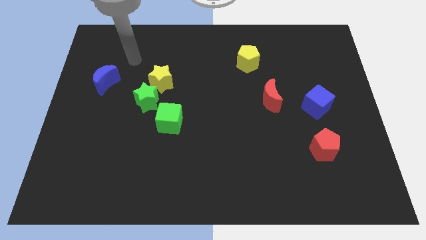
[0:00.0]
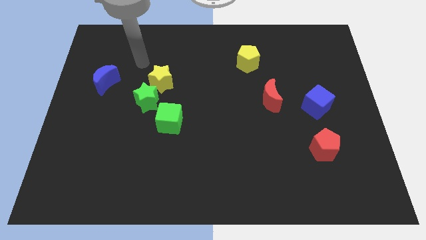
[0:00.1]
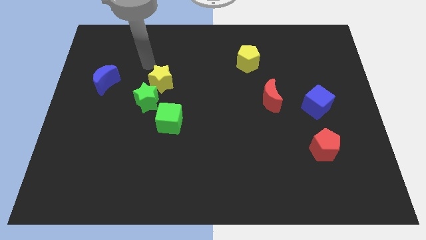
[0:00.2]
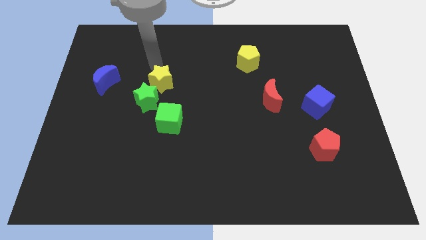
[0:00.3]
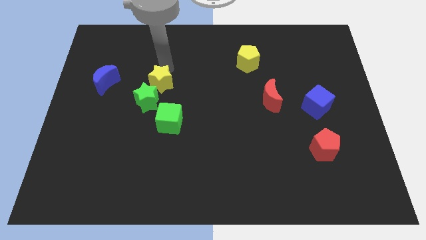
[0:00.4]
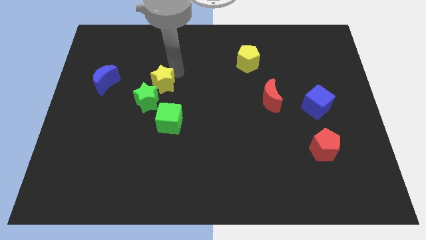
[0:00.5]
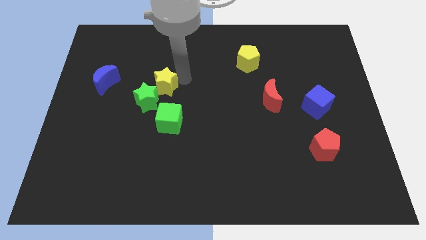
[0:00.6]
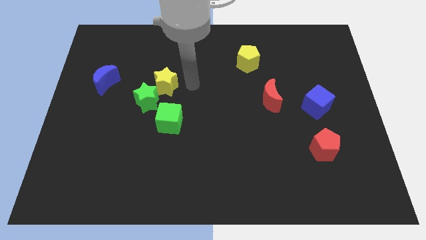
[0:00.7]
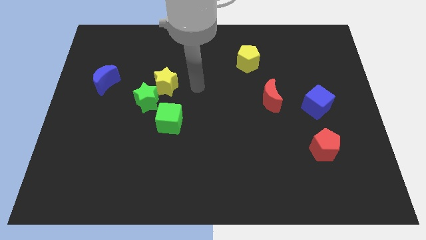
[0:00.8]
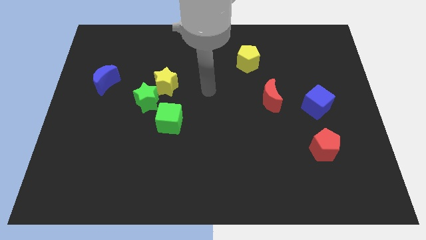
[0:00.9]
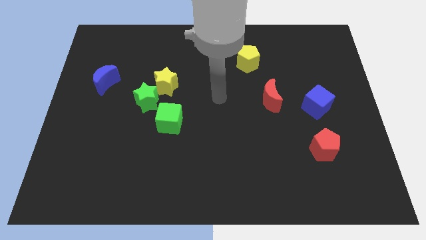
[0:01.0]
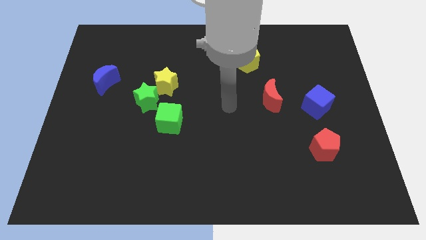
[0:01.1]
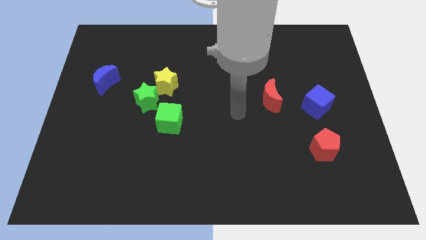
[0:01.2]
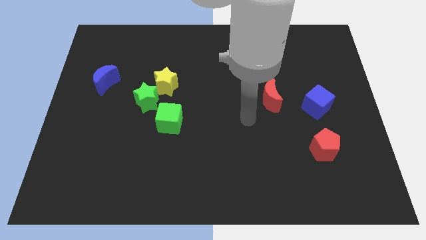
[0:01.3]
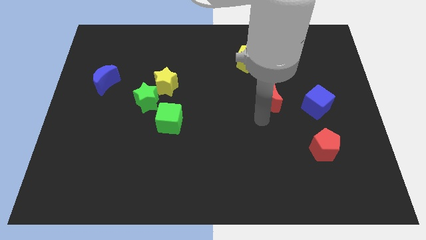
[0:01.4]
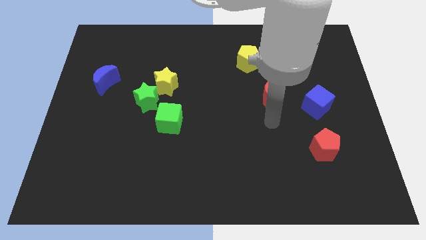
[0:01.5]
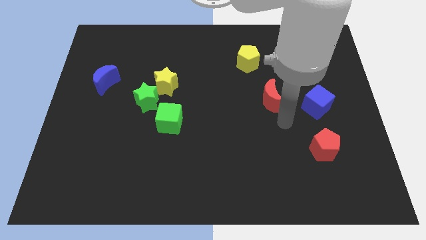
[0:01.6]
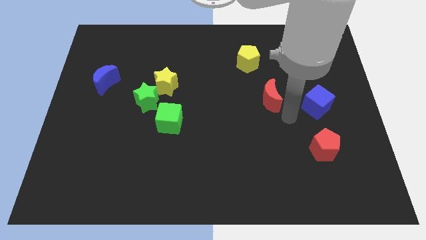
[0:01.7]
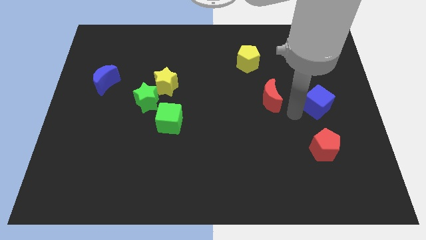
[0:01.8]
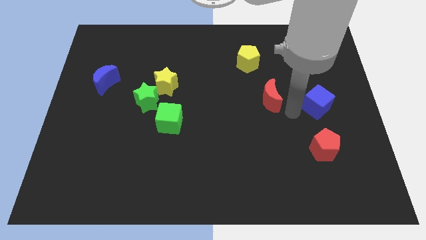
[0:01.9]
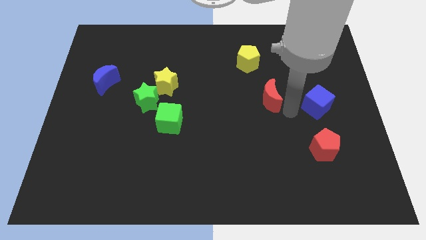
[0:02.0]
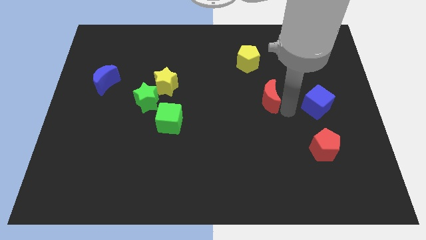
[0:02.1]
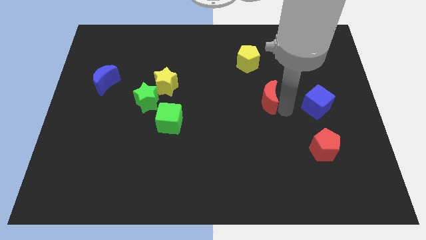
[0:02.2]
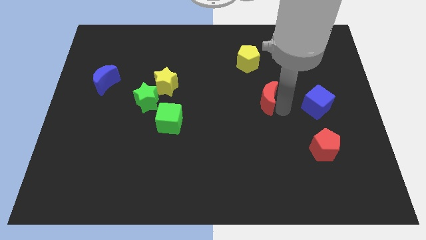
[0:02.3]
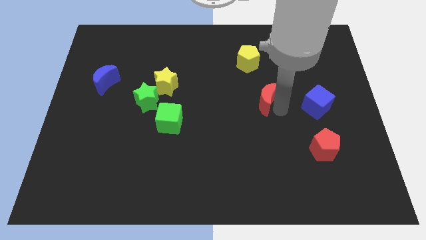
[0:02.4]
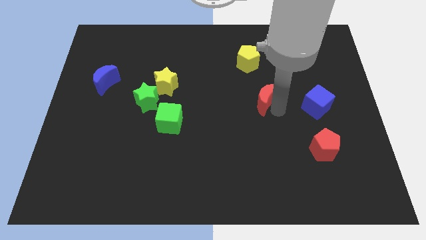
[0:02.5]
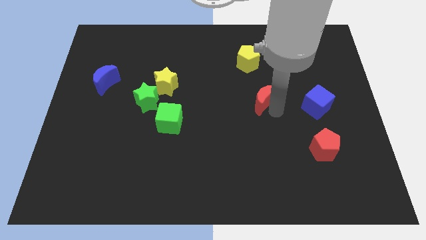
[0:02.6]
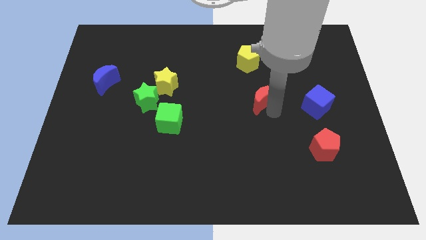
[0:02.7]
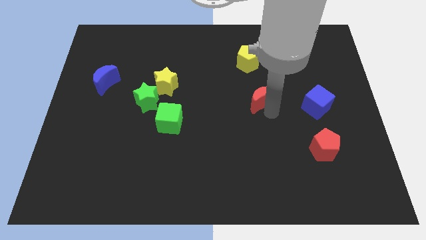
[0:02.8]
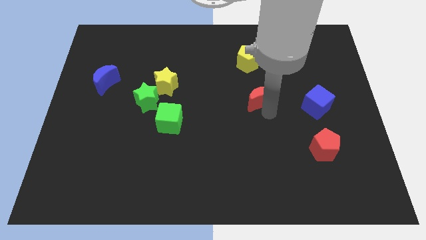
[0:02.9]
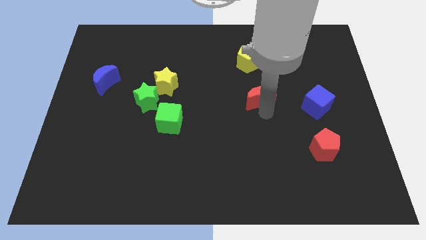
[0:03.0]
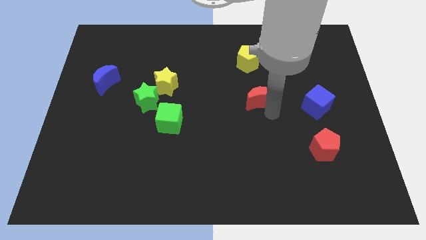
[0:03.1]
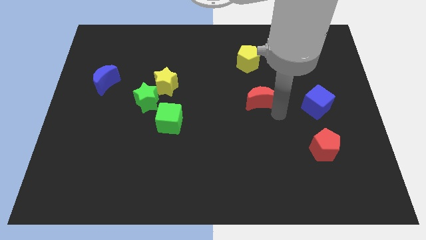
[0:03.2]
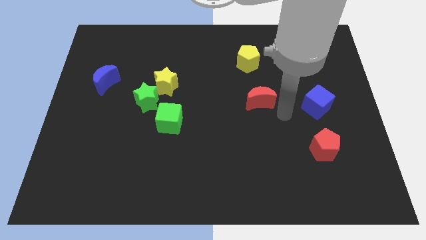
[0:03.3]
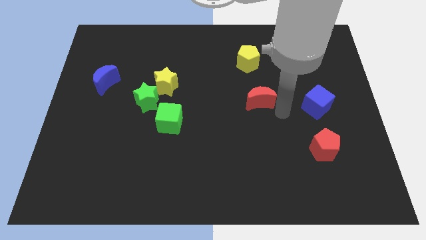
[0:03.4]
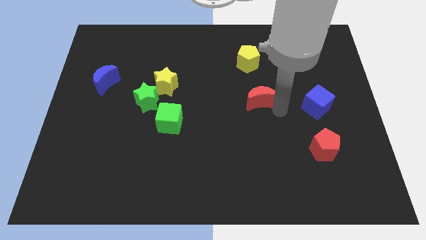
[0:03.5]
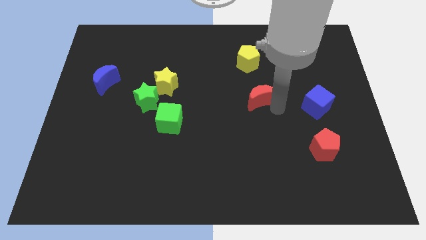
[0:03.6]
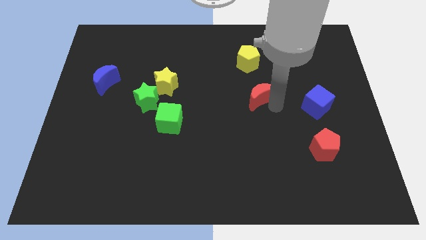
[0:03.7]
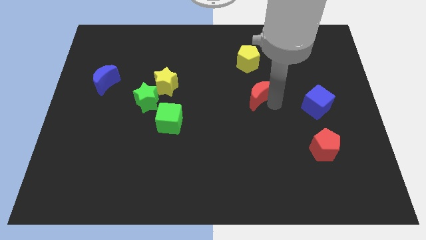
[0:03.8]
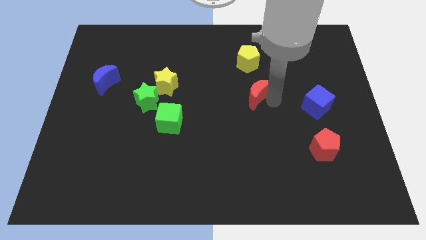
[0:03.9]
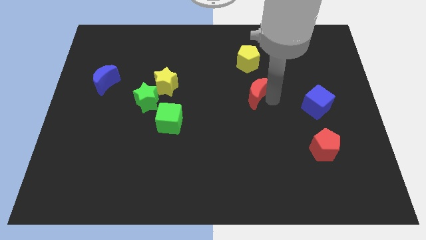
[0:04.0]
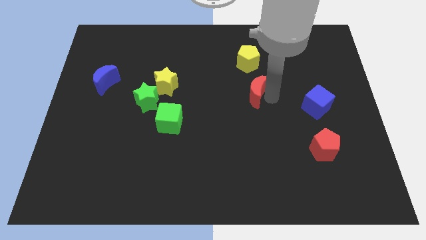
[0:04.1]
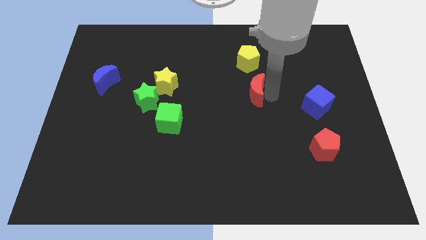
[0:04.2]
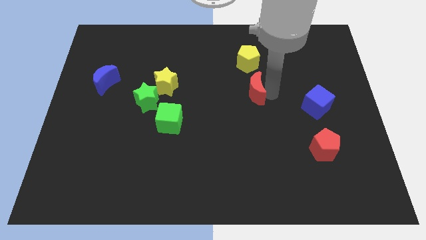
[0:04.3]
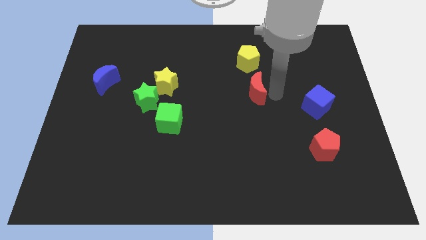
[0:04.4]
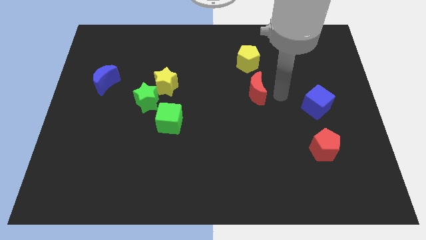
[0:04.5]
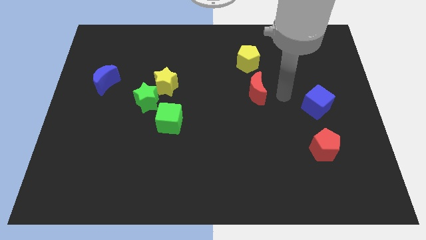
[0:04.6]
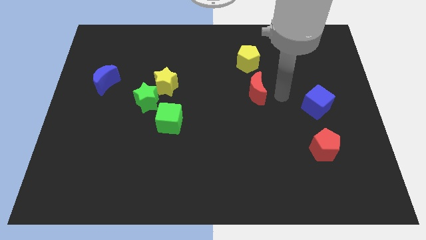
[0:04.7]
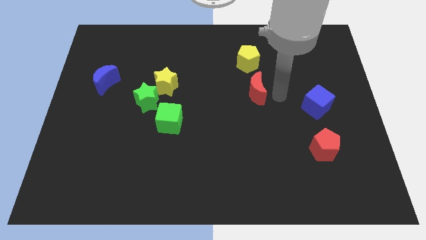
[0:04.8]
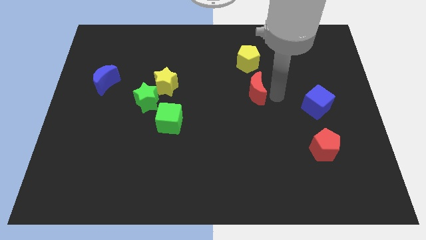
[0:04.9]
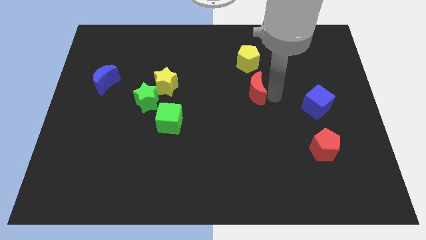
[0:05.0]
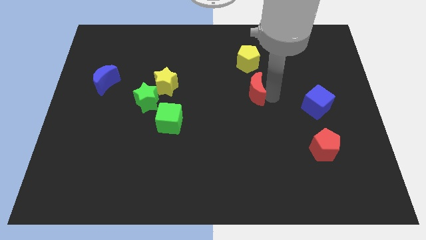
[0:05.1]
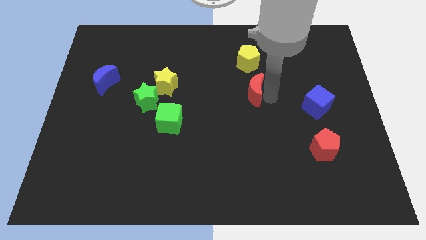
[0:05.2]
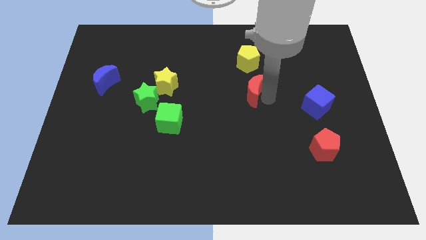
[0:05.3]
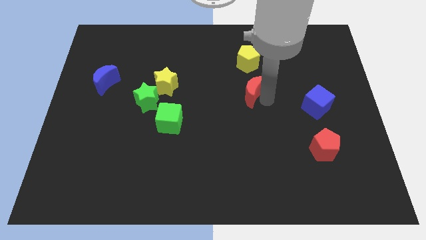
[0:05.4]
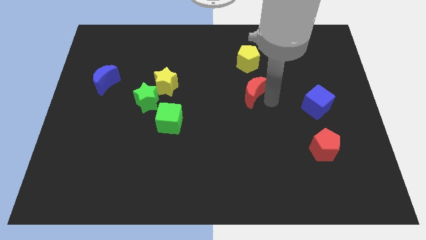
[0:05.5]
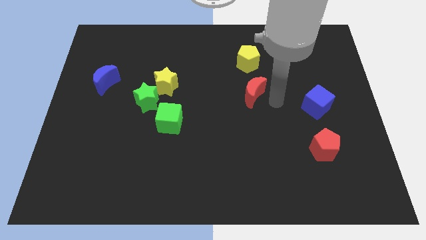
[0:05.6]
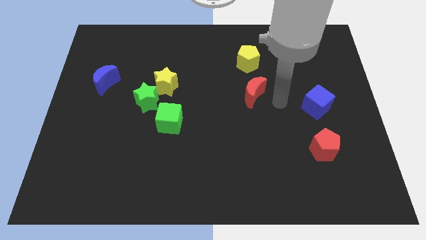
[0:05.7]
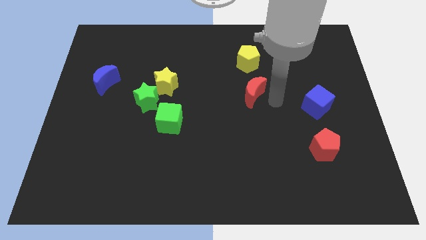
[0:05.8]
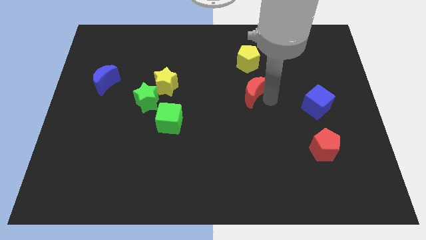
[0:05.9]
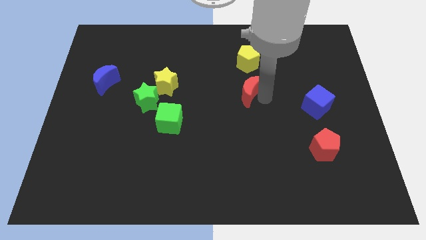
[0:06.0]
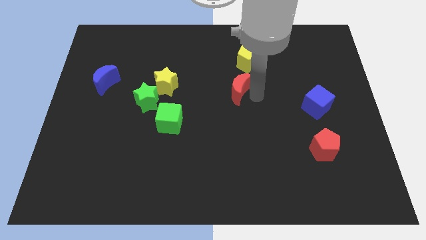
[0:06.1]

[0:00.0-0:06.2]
move the red moon upwards and left a little

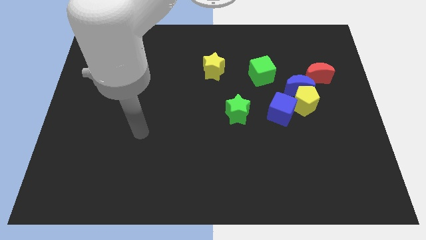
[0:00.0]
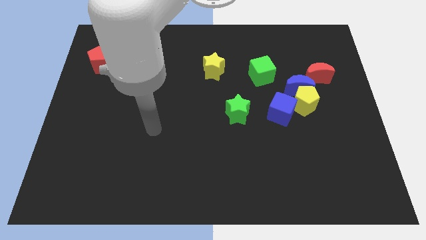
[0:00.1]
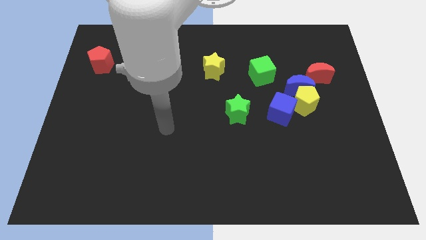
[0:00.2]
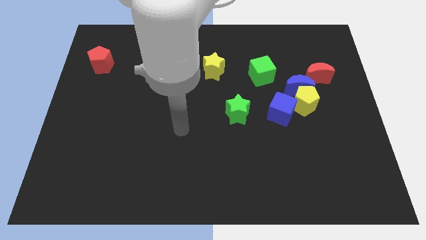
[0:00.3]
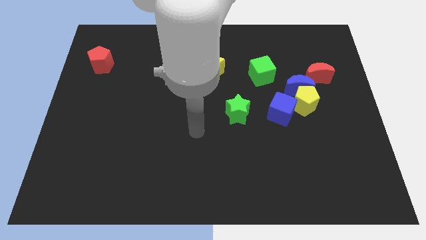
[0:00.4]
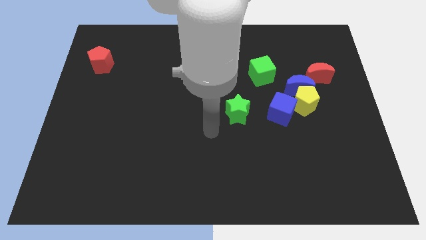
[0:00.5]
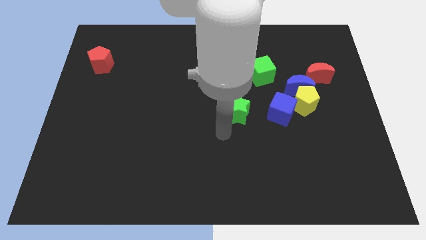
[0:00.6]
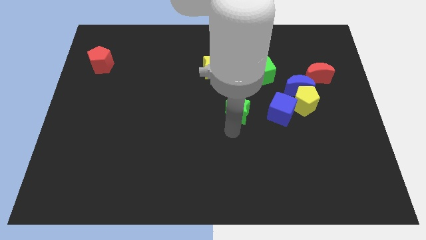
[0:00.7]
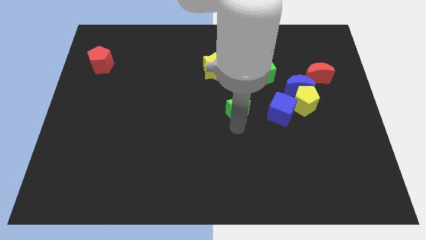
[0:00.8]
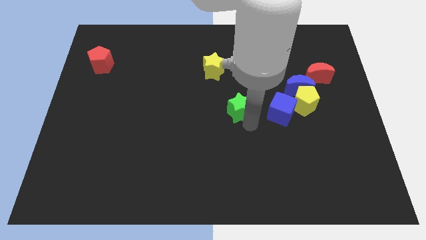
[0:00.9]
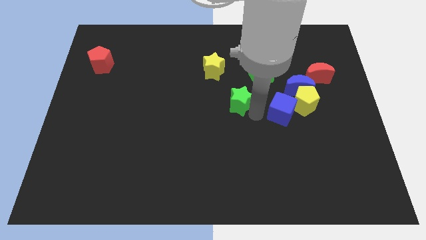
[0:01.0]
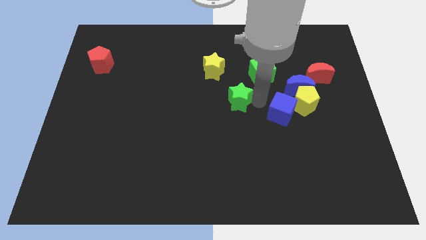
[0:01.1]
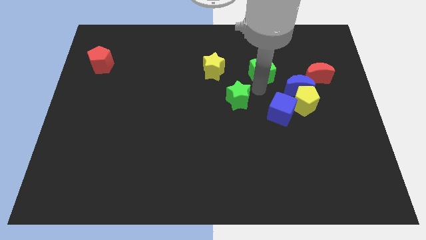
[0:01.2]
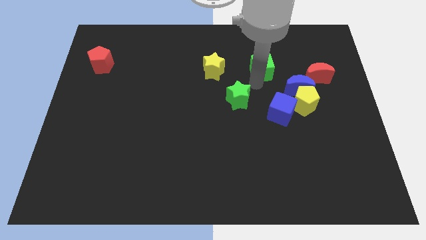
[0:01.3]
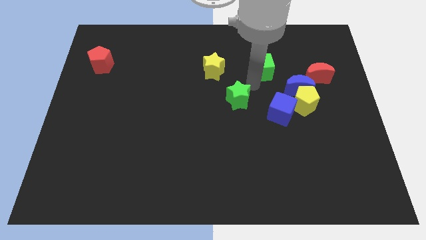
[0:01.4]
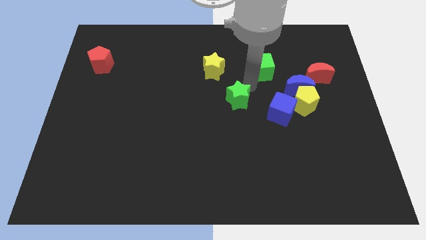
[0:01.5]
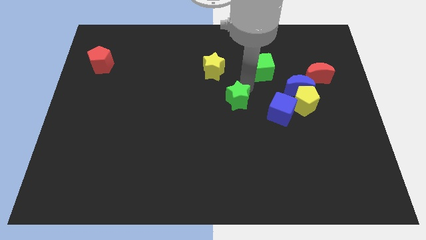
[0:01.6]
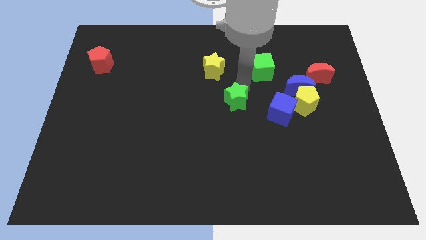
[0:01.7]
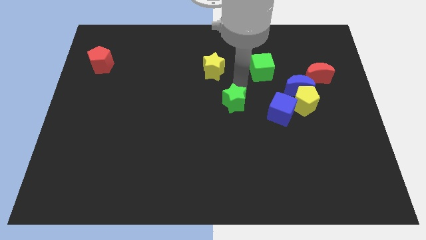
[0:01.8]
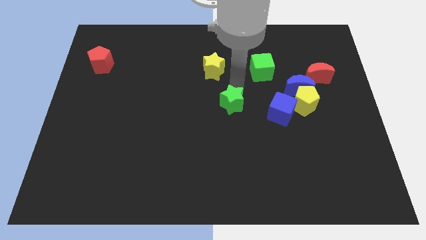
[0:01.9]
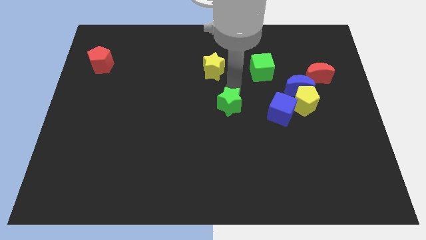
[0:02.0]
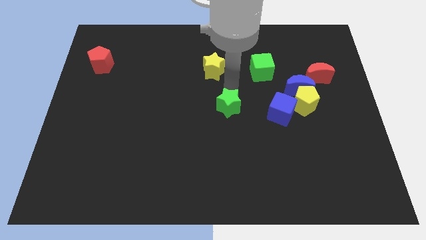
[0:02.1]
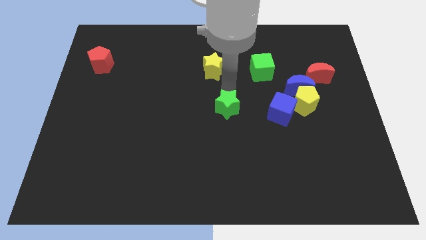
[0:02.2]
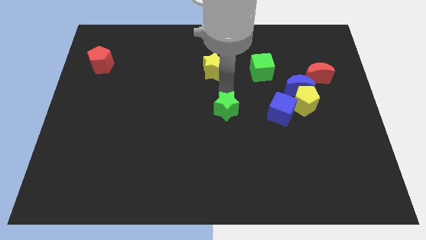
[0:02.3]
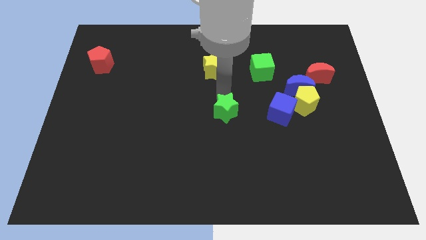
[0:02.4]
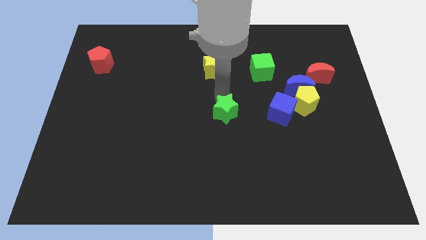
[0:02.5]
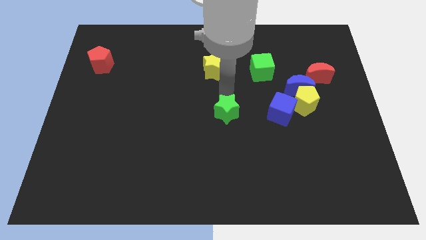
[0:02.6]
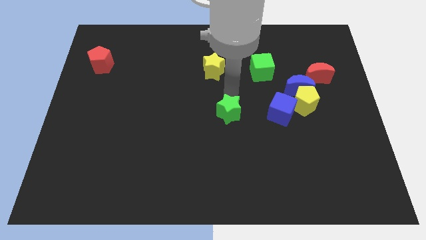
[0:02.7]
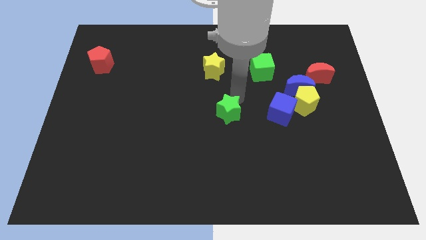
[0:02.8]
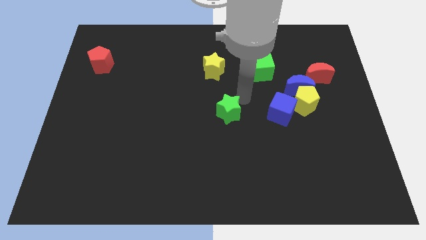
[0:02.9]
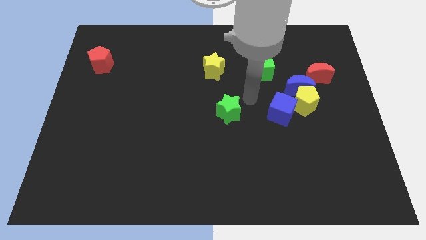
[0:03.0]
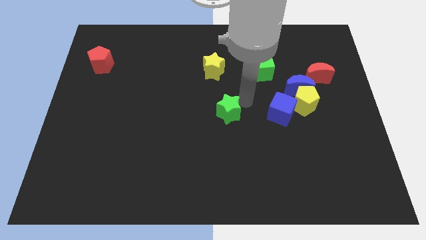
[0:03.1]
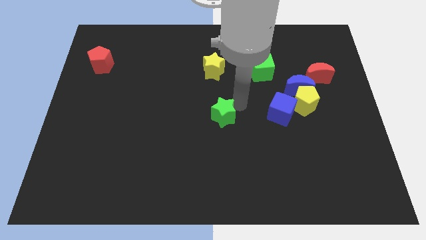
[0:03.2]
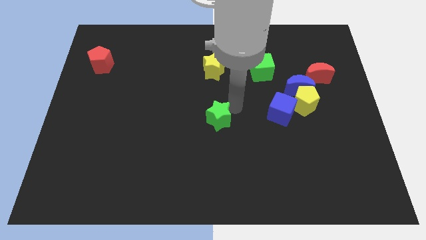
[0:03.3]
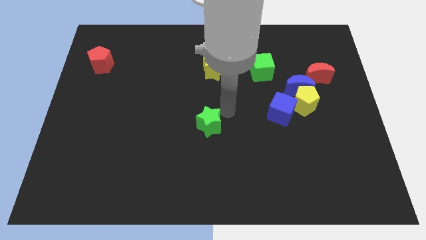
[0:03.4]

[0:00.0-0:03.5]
slightly push the green star diagonally downwards and left
